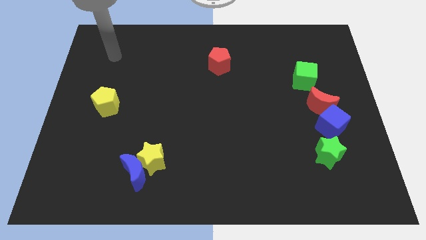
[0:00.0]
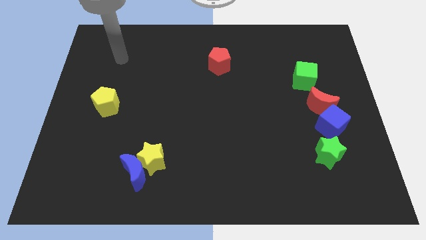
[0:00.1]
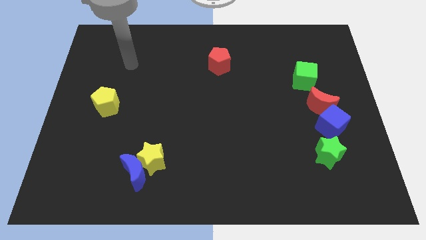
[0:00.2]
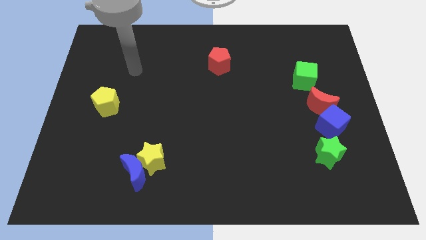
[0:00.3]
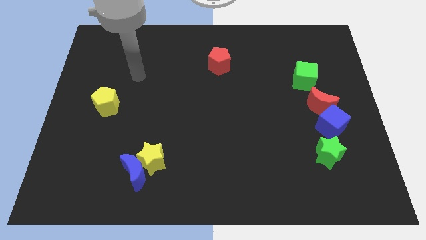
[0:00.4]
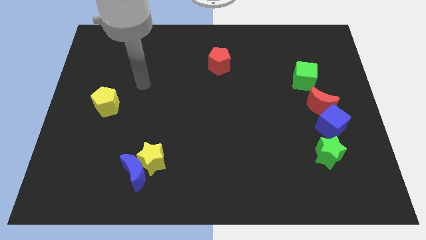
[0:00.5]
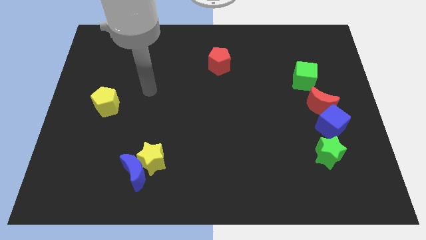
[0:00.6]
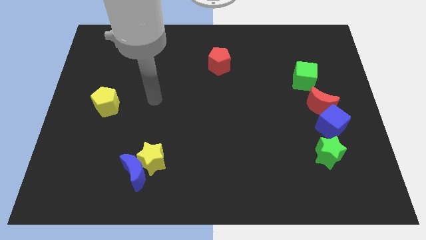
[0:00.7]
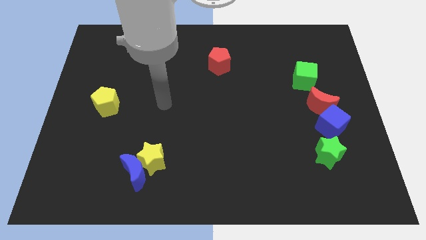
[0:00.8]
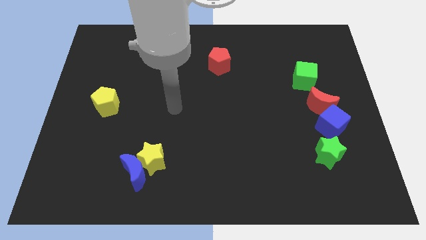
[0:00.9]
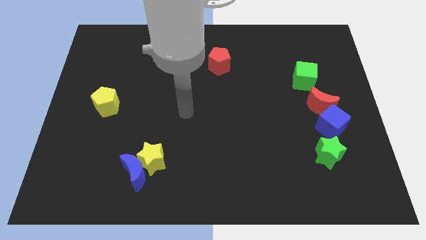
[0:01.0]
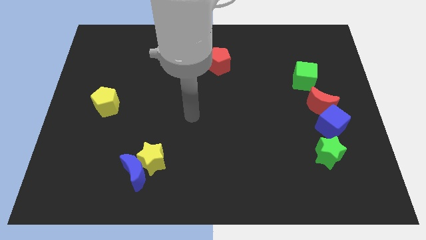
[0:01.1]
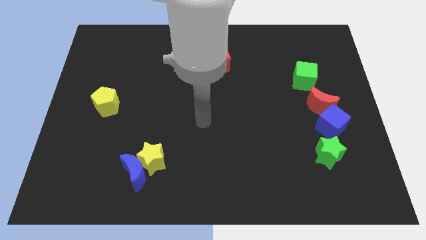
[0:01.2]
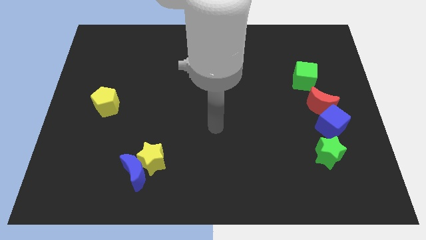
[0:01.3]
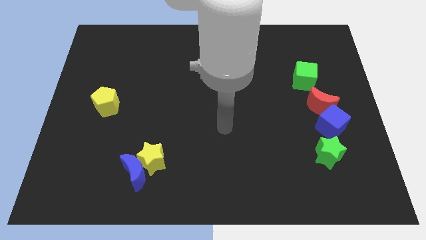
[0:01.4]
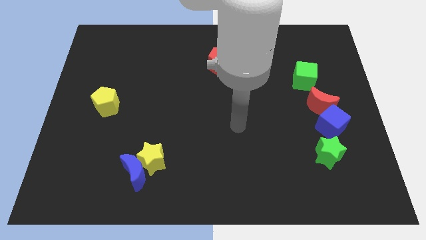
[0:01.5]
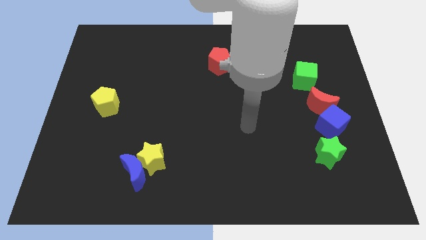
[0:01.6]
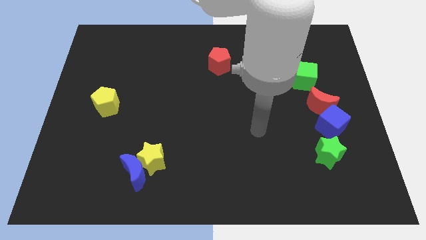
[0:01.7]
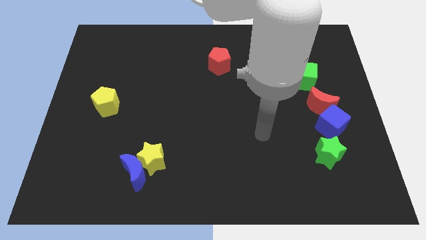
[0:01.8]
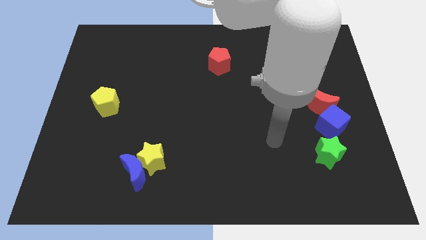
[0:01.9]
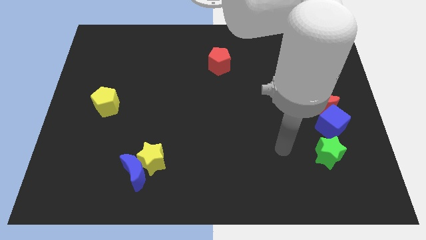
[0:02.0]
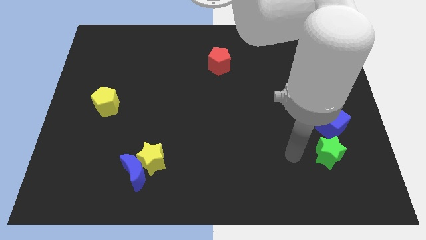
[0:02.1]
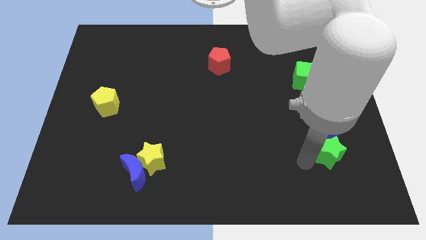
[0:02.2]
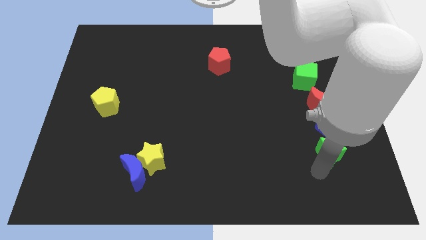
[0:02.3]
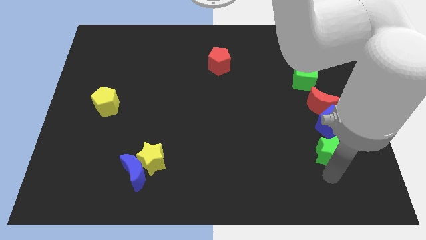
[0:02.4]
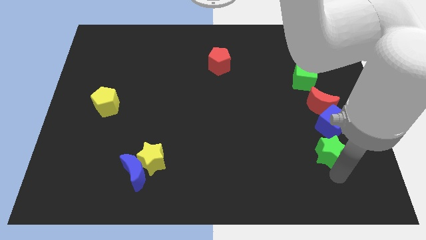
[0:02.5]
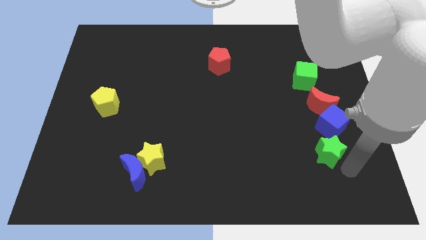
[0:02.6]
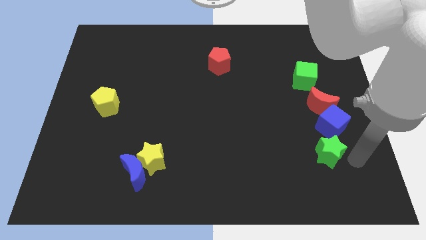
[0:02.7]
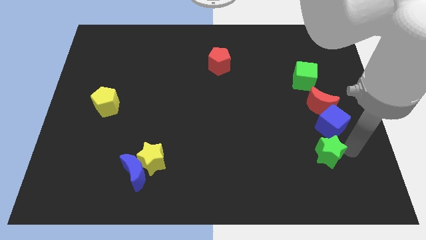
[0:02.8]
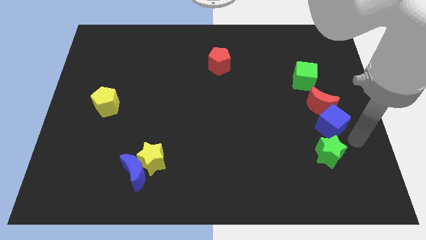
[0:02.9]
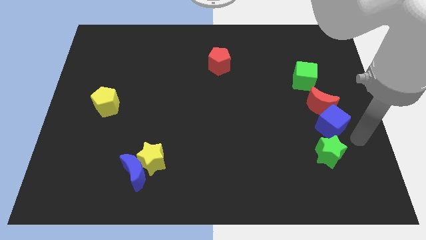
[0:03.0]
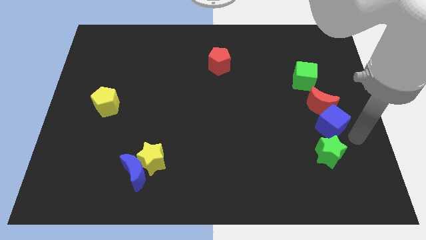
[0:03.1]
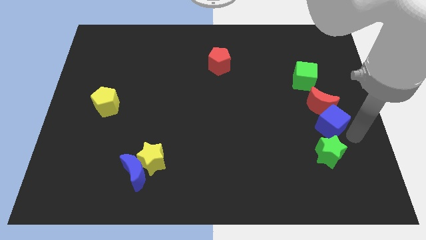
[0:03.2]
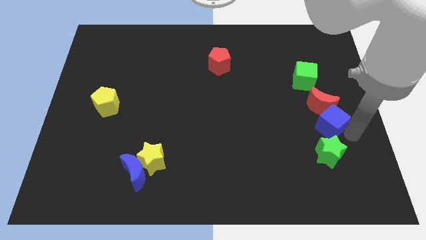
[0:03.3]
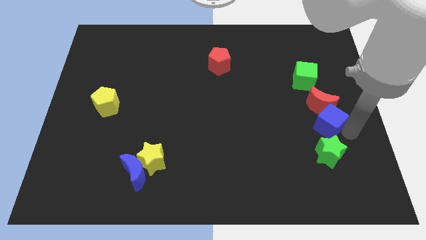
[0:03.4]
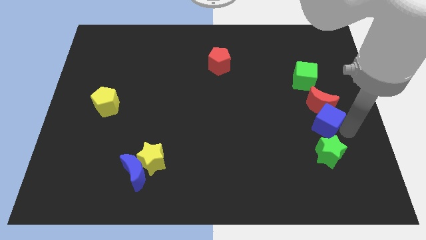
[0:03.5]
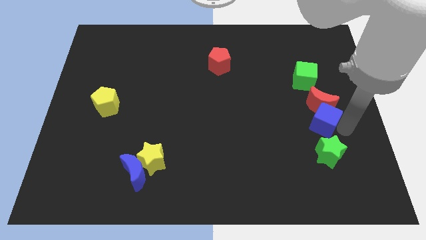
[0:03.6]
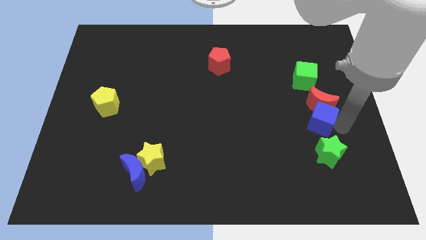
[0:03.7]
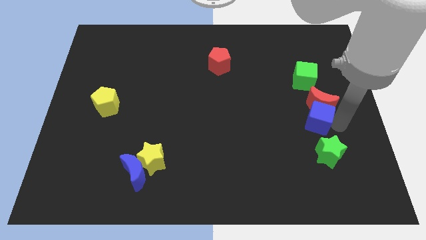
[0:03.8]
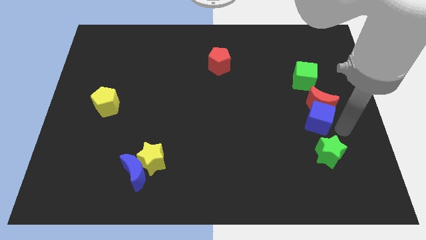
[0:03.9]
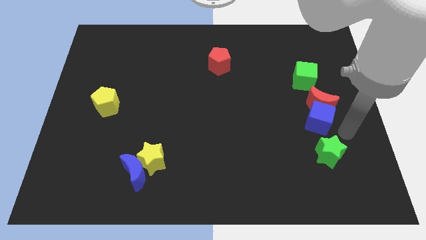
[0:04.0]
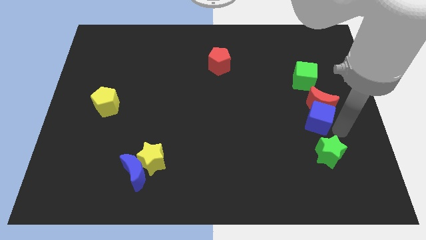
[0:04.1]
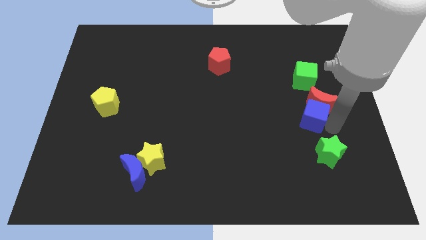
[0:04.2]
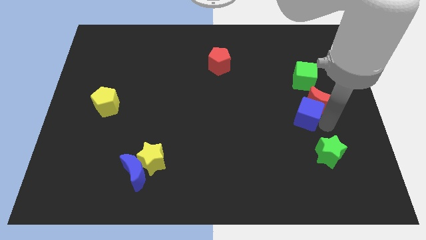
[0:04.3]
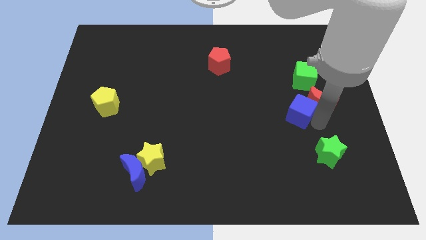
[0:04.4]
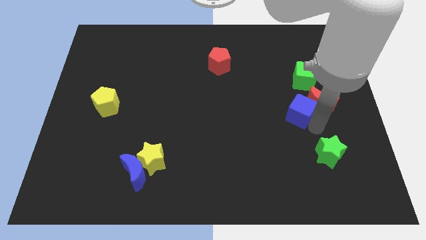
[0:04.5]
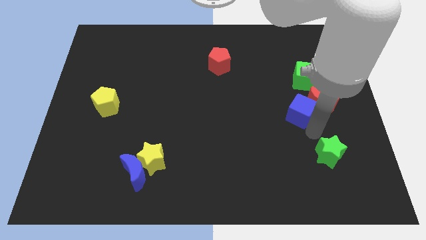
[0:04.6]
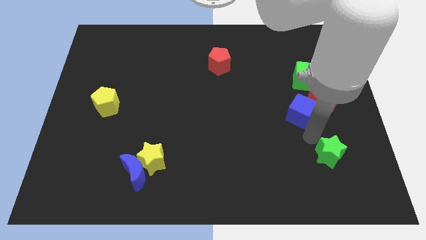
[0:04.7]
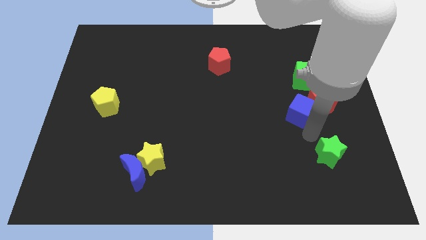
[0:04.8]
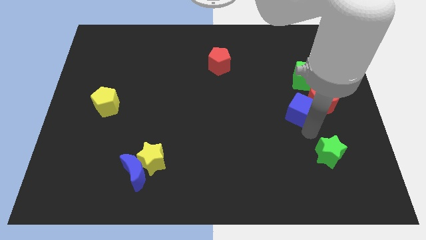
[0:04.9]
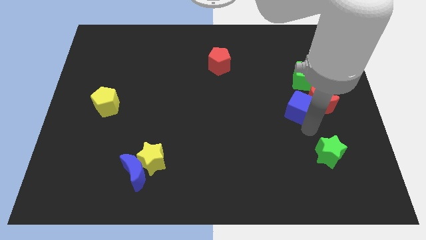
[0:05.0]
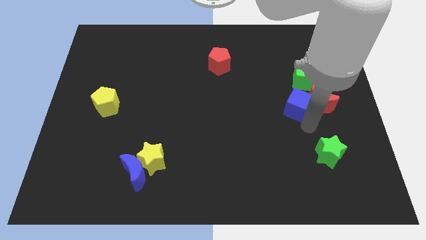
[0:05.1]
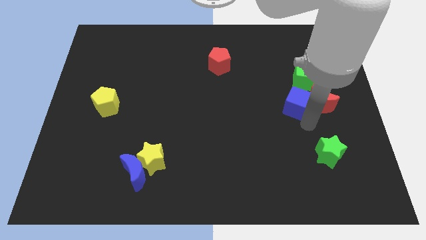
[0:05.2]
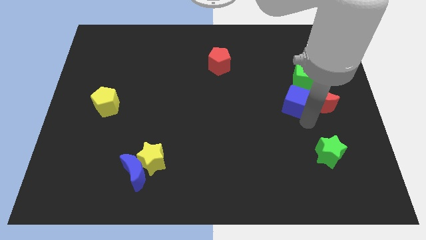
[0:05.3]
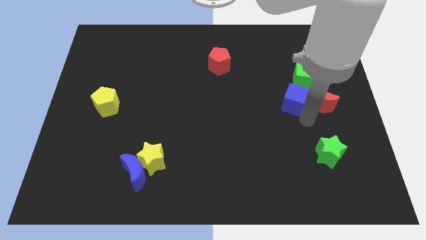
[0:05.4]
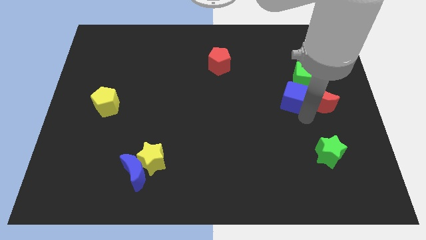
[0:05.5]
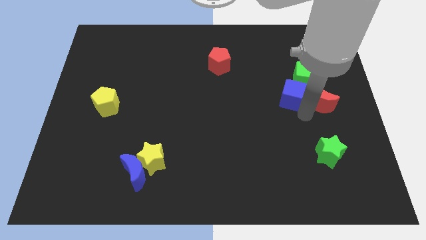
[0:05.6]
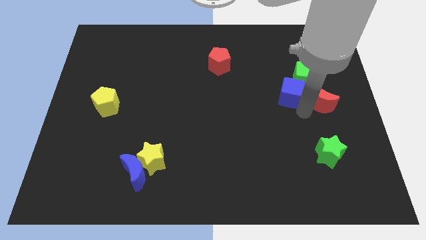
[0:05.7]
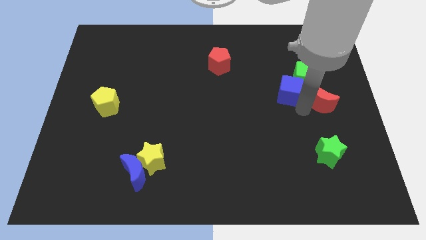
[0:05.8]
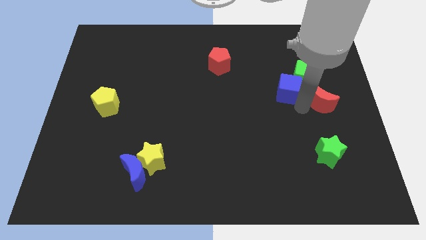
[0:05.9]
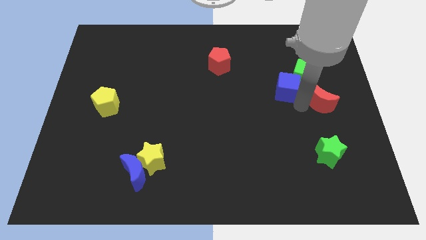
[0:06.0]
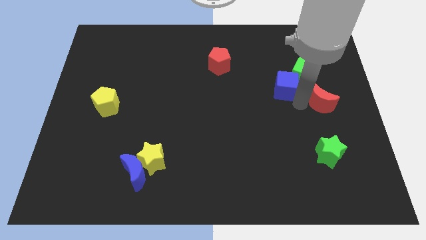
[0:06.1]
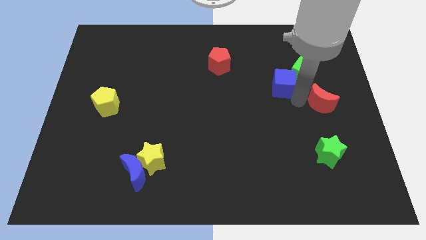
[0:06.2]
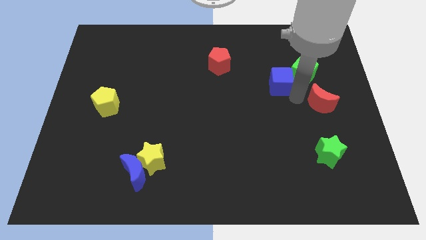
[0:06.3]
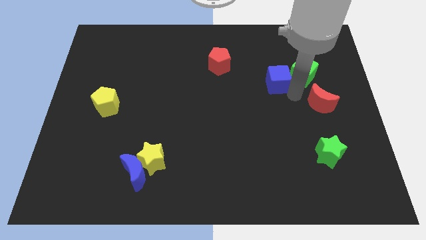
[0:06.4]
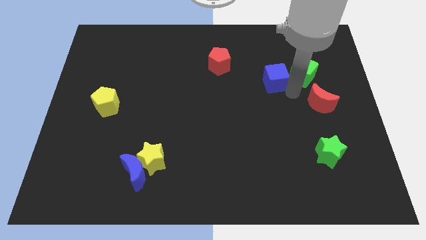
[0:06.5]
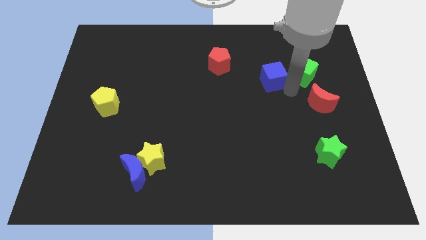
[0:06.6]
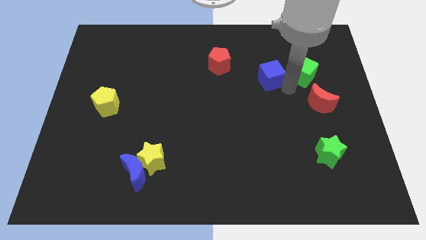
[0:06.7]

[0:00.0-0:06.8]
push the blue cube to the right of the red pentagon

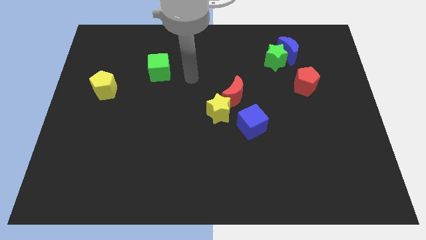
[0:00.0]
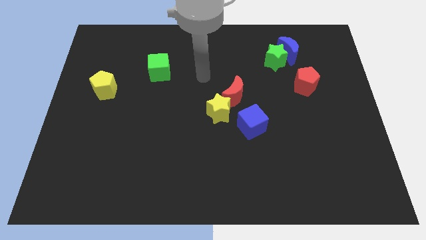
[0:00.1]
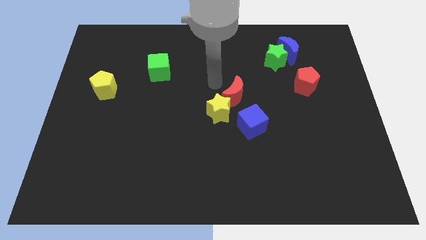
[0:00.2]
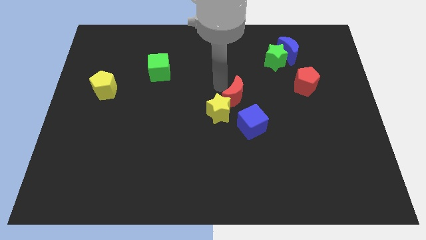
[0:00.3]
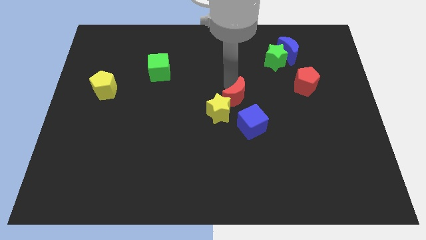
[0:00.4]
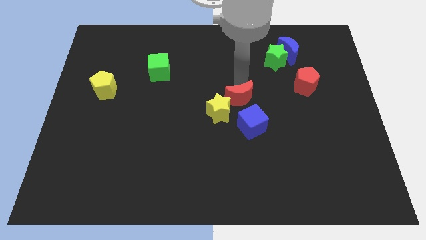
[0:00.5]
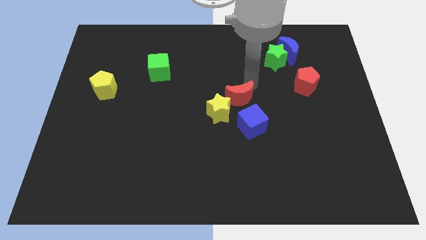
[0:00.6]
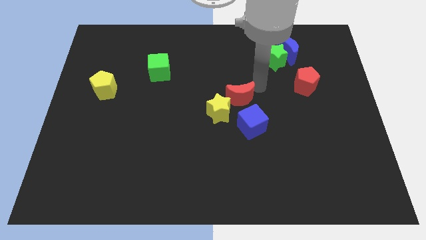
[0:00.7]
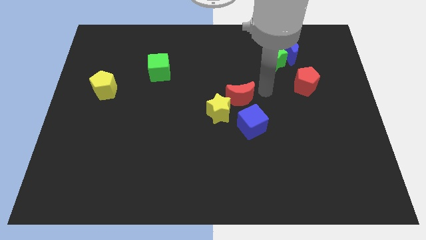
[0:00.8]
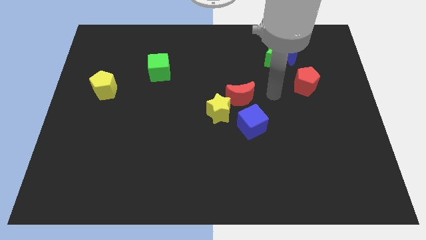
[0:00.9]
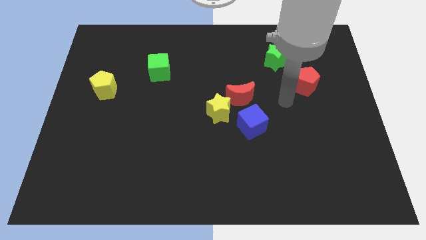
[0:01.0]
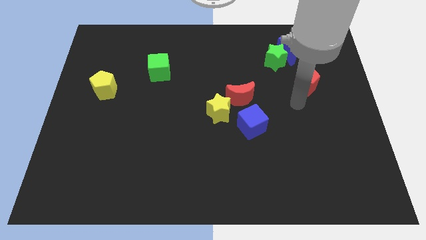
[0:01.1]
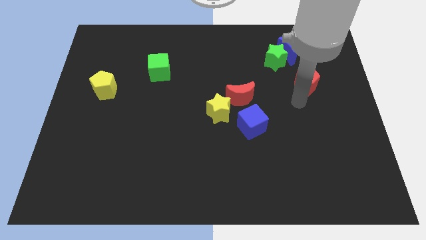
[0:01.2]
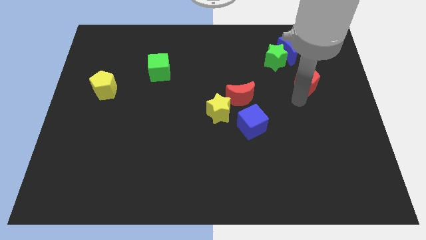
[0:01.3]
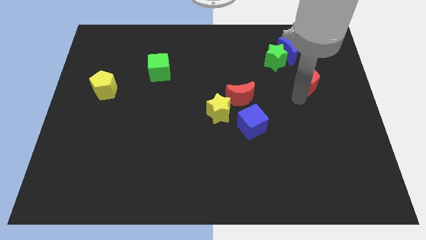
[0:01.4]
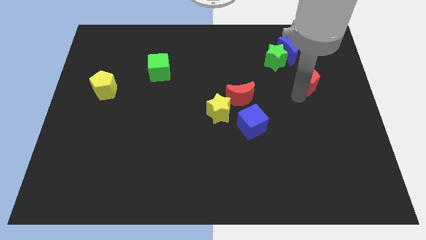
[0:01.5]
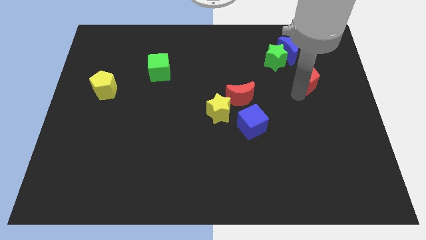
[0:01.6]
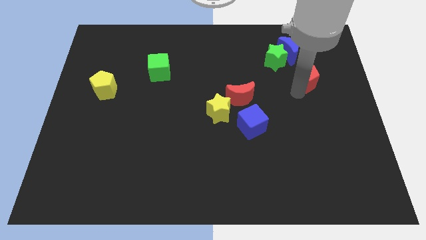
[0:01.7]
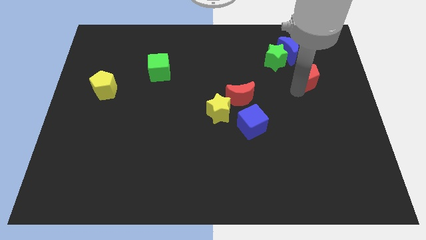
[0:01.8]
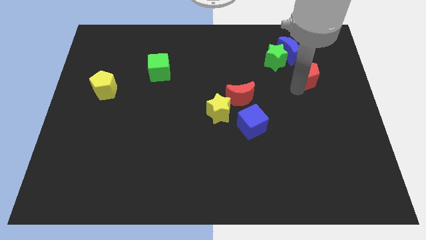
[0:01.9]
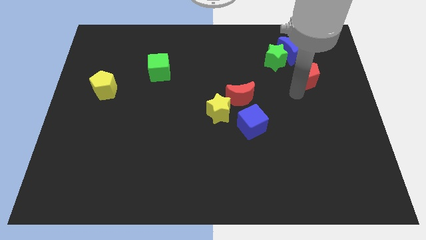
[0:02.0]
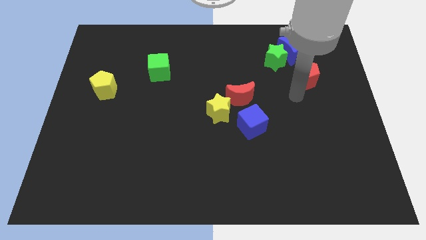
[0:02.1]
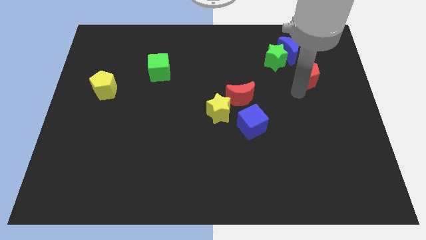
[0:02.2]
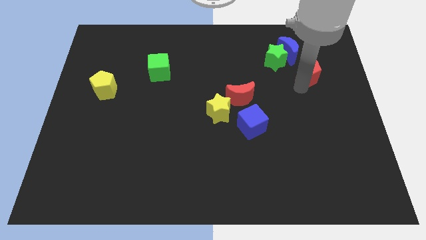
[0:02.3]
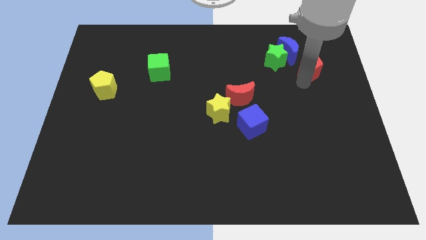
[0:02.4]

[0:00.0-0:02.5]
slide the red pentagon right of the green star
